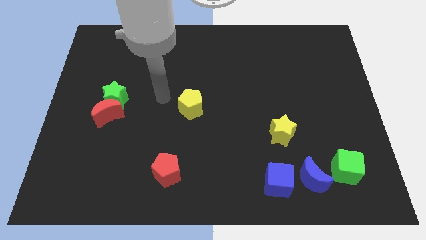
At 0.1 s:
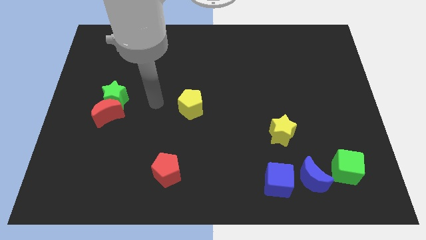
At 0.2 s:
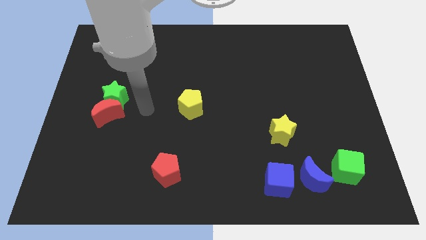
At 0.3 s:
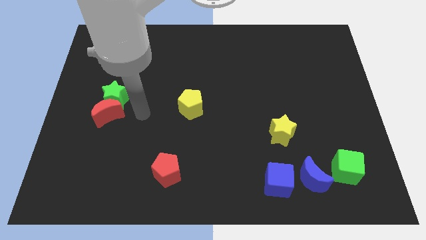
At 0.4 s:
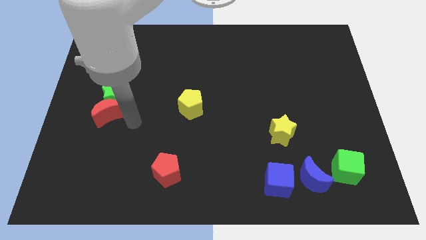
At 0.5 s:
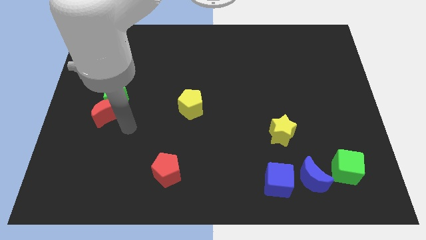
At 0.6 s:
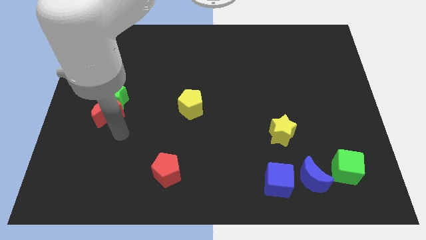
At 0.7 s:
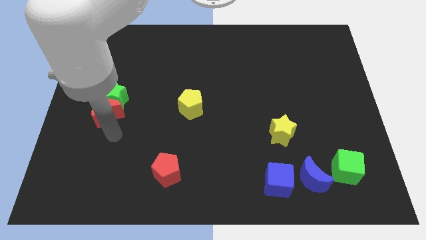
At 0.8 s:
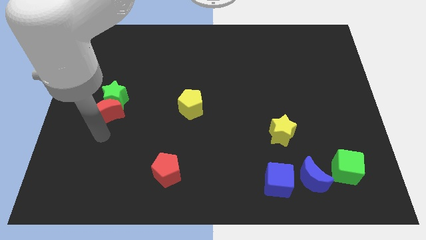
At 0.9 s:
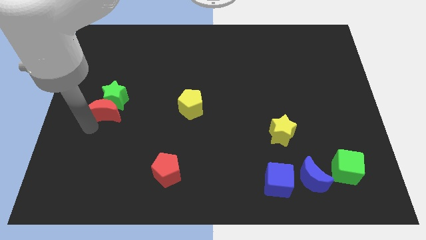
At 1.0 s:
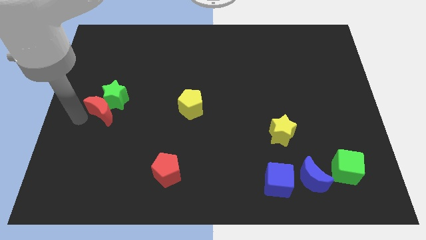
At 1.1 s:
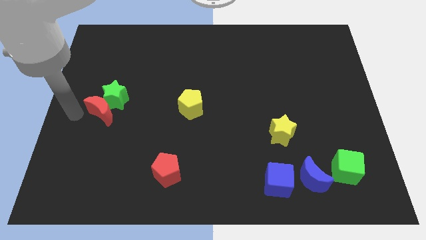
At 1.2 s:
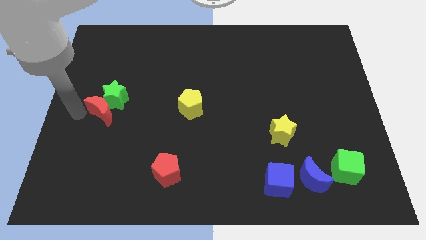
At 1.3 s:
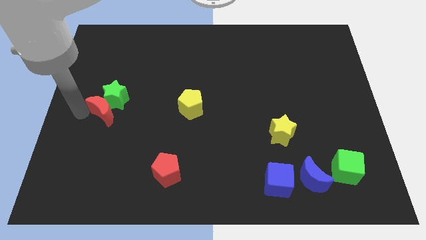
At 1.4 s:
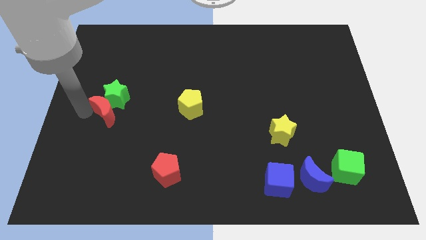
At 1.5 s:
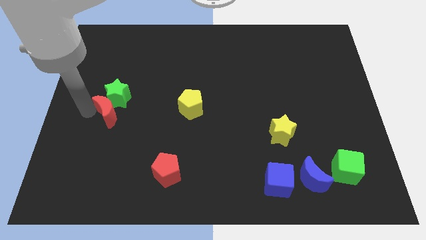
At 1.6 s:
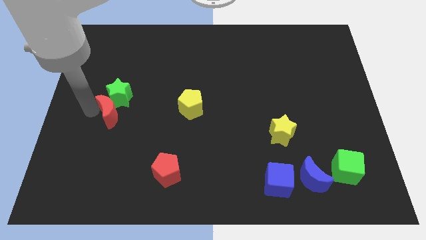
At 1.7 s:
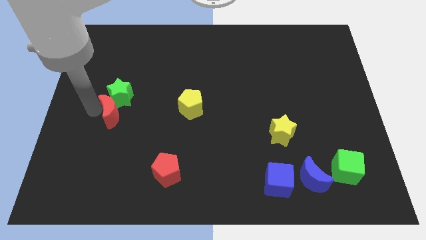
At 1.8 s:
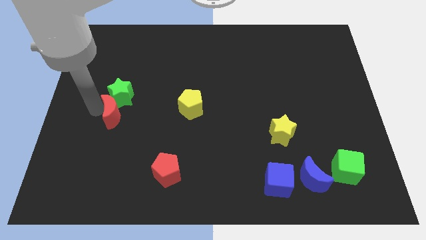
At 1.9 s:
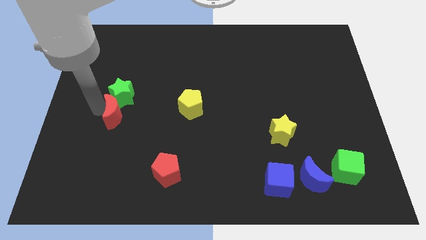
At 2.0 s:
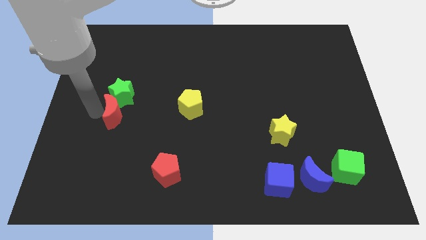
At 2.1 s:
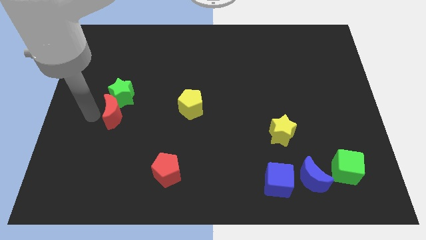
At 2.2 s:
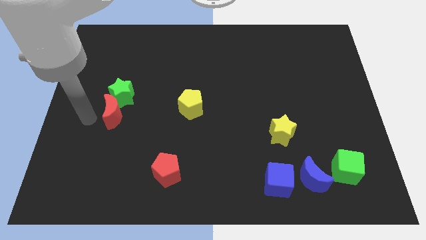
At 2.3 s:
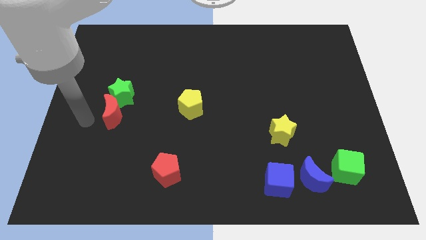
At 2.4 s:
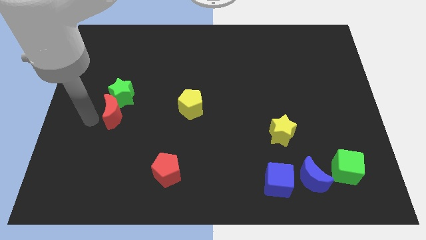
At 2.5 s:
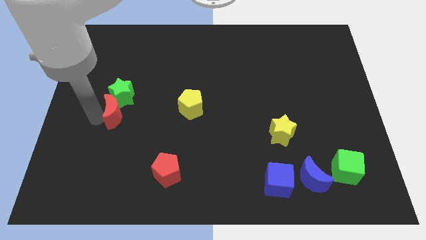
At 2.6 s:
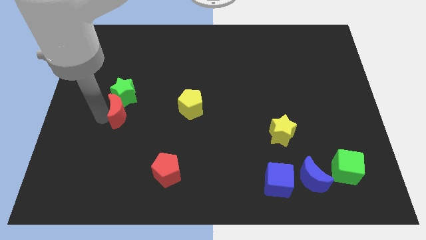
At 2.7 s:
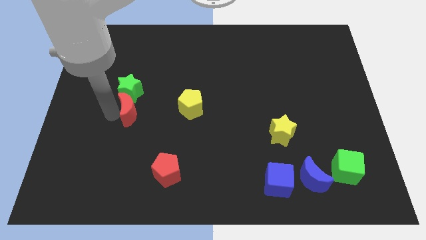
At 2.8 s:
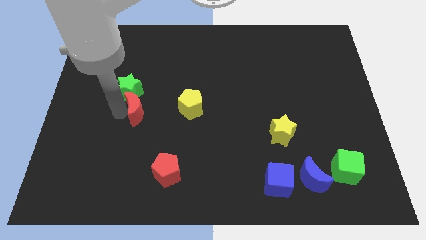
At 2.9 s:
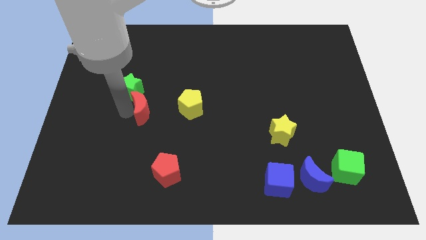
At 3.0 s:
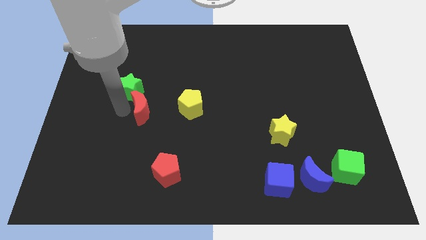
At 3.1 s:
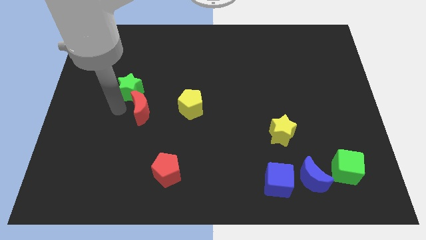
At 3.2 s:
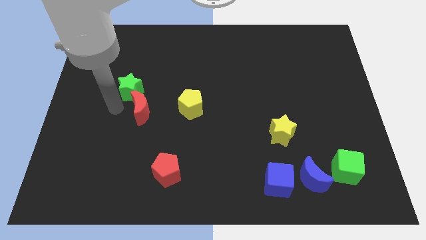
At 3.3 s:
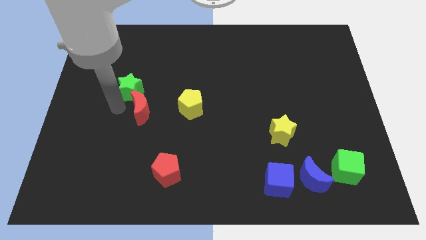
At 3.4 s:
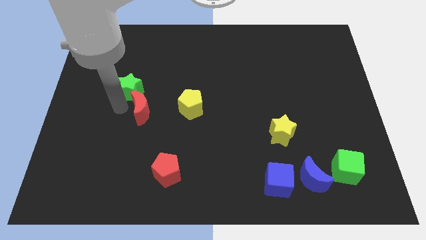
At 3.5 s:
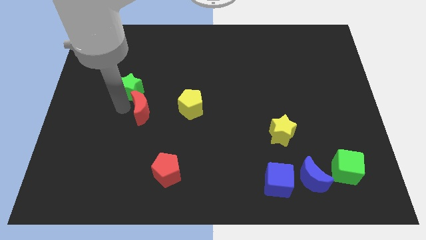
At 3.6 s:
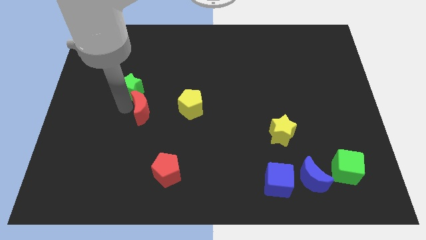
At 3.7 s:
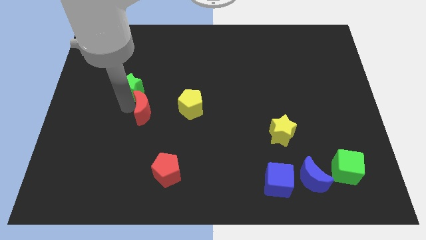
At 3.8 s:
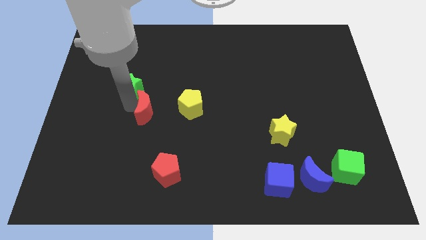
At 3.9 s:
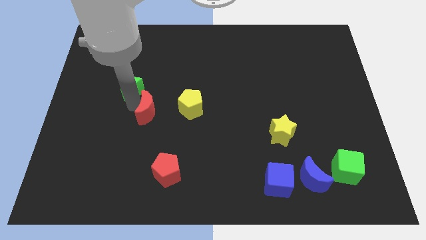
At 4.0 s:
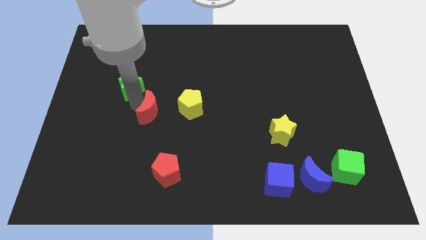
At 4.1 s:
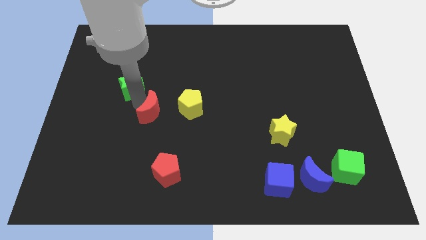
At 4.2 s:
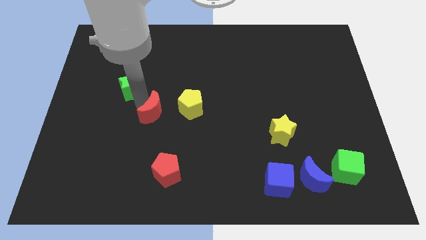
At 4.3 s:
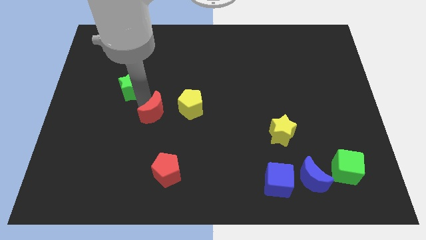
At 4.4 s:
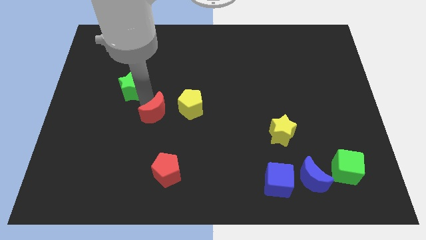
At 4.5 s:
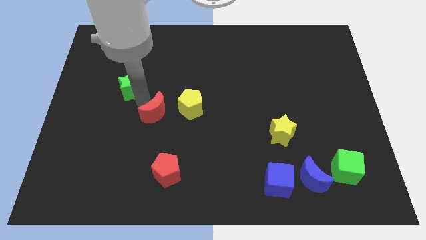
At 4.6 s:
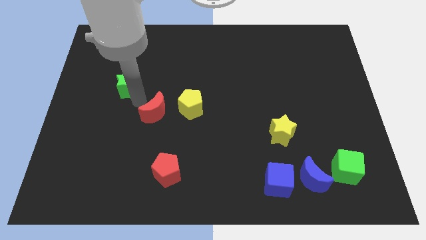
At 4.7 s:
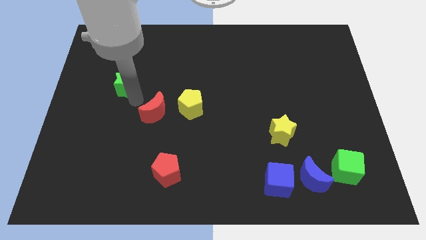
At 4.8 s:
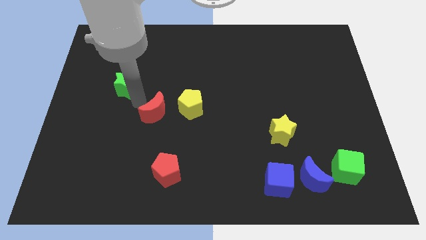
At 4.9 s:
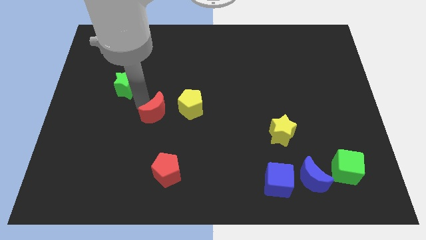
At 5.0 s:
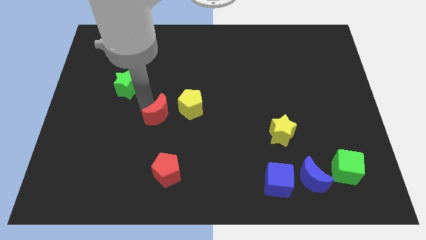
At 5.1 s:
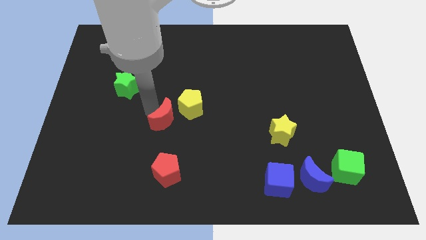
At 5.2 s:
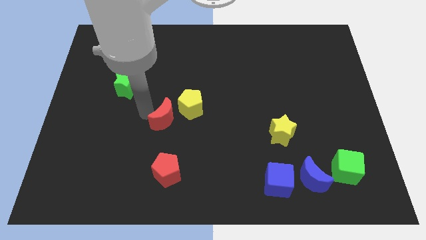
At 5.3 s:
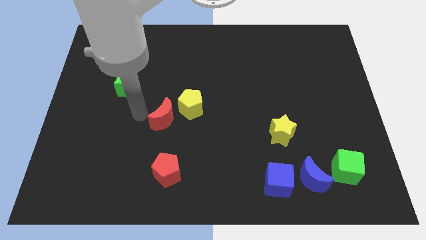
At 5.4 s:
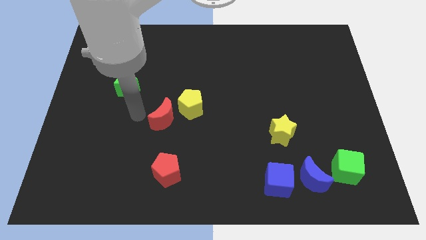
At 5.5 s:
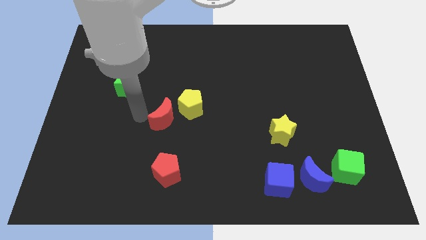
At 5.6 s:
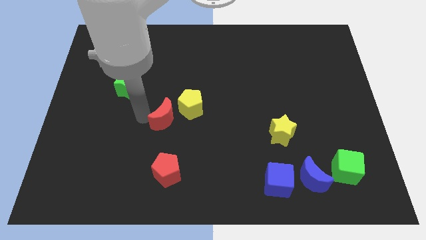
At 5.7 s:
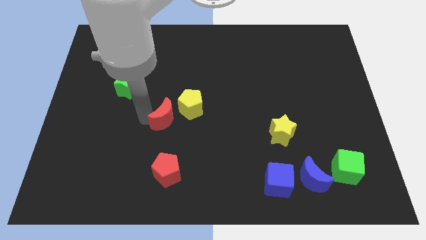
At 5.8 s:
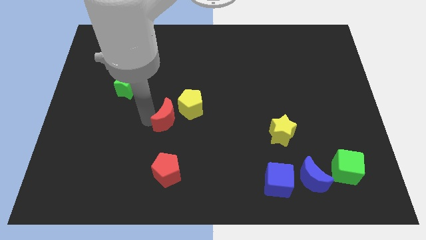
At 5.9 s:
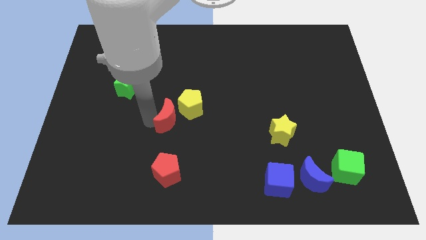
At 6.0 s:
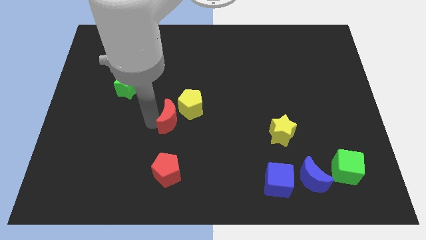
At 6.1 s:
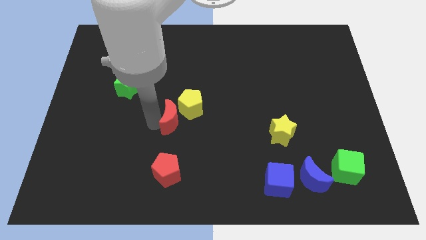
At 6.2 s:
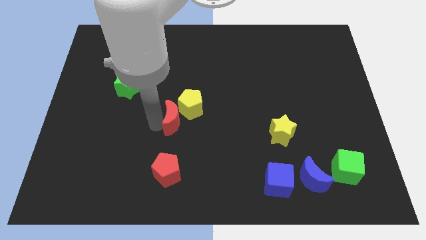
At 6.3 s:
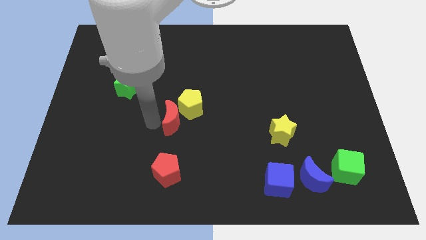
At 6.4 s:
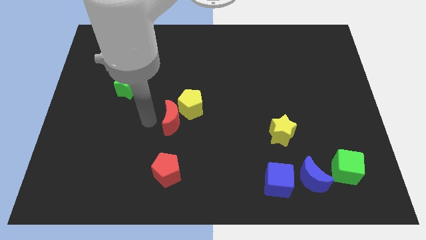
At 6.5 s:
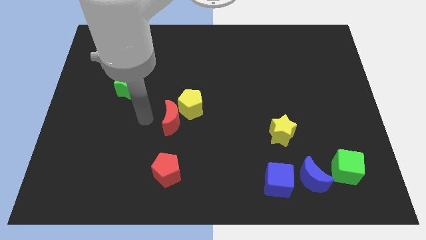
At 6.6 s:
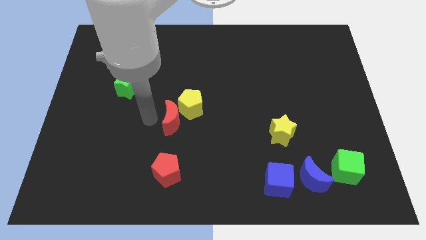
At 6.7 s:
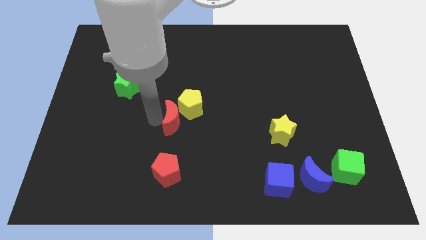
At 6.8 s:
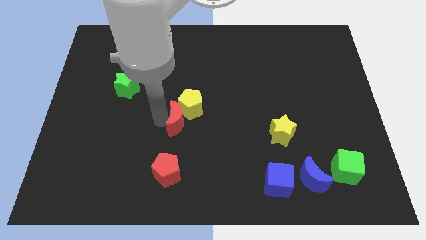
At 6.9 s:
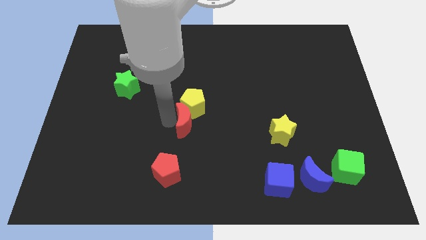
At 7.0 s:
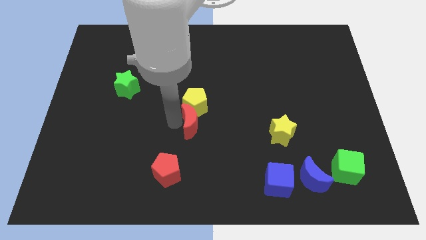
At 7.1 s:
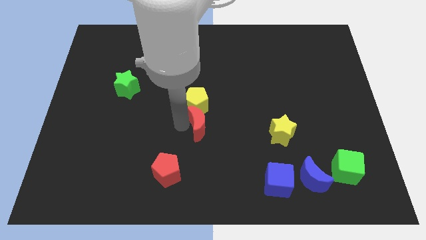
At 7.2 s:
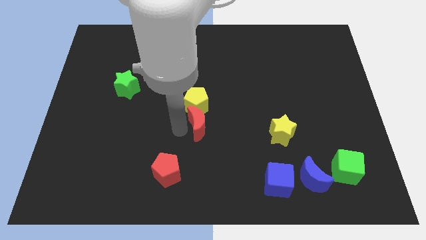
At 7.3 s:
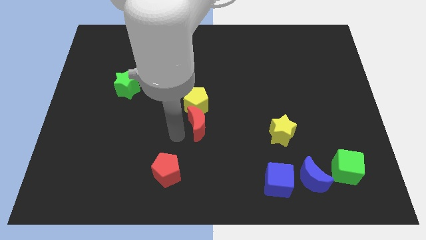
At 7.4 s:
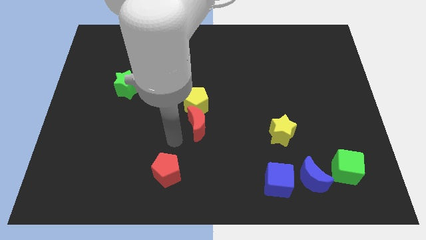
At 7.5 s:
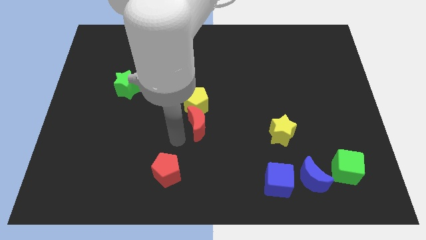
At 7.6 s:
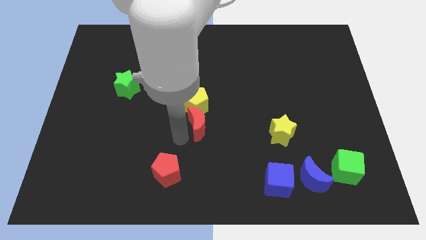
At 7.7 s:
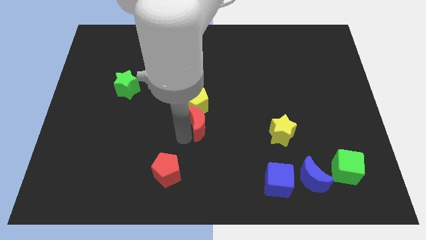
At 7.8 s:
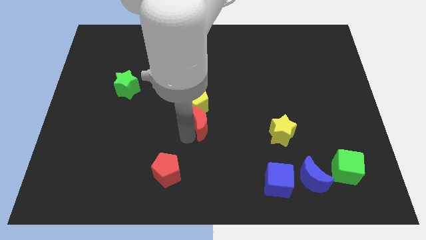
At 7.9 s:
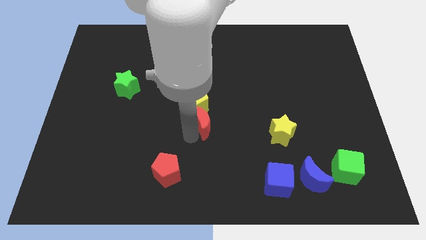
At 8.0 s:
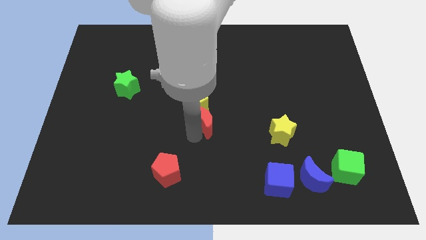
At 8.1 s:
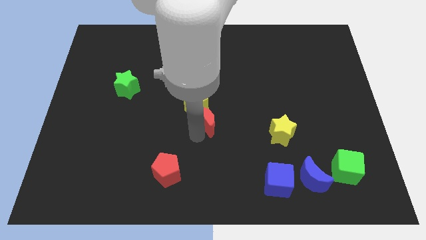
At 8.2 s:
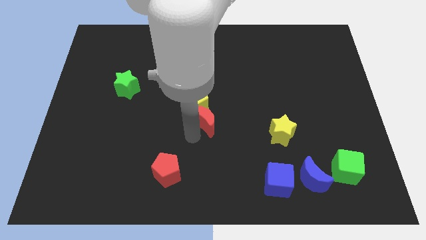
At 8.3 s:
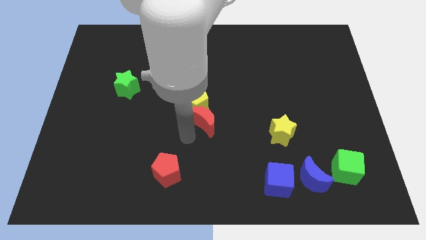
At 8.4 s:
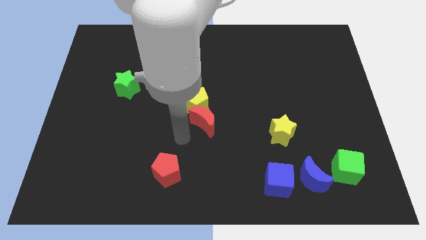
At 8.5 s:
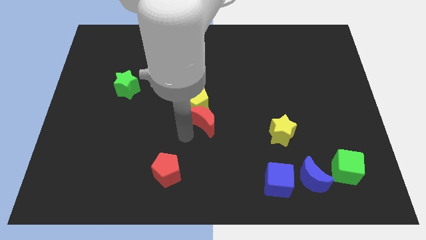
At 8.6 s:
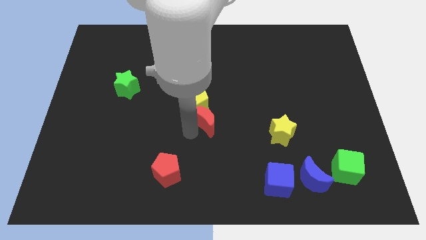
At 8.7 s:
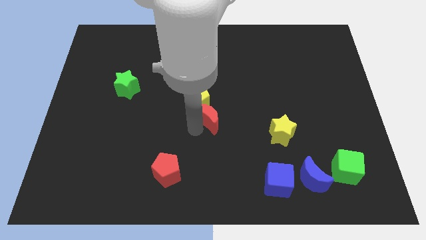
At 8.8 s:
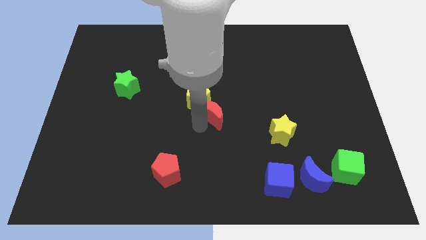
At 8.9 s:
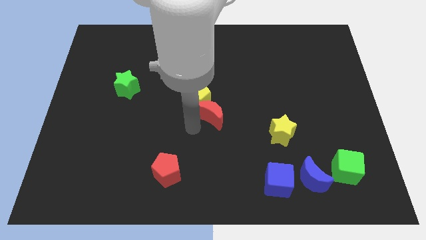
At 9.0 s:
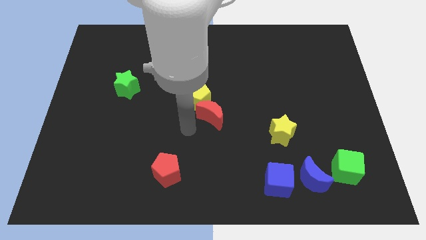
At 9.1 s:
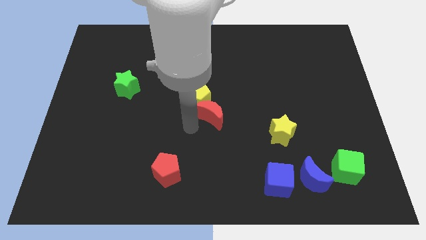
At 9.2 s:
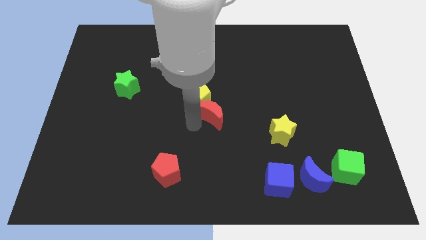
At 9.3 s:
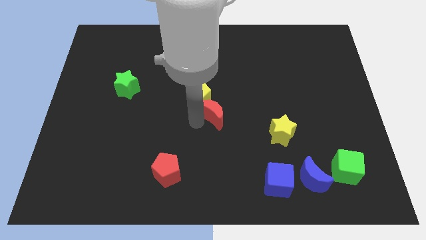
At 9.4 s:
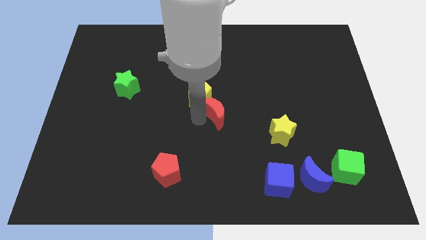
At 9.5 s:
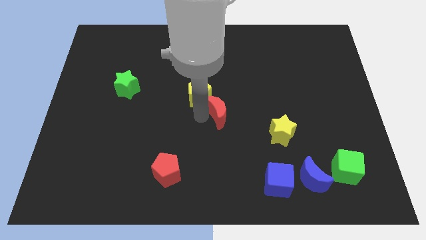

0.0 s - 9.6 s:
push the red moon to the right side of the yellow pentagon
